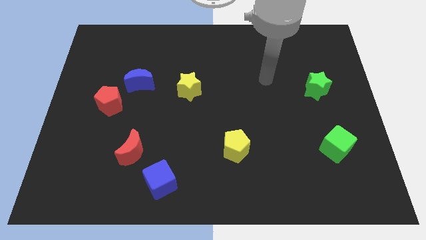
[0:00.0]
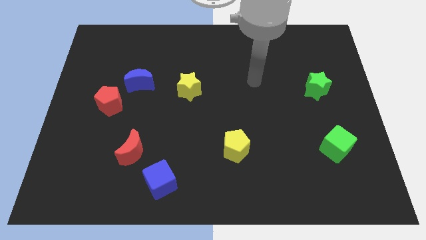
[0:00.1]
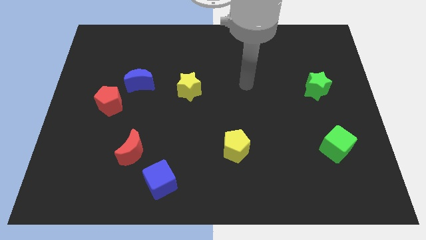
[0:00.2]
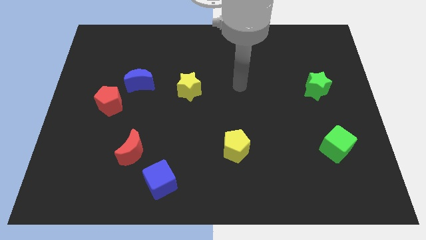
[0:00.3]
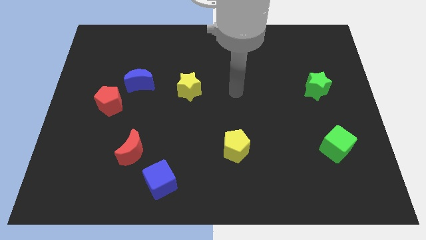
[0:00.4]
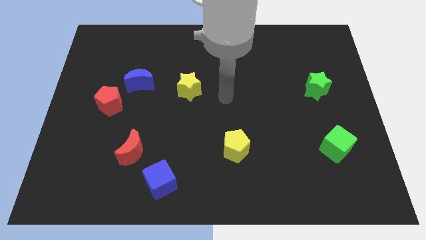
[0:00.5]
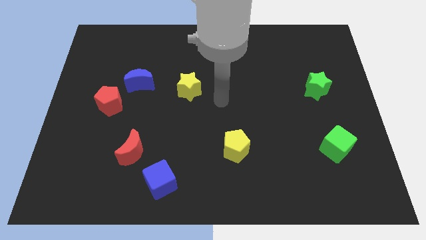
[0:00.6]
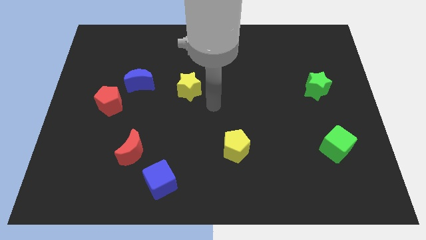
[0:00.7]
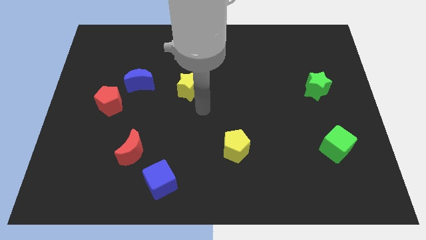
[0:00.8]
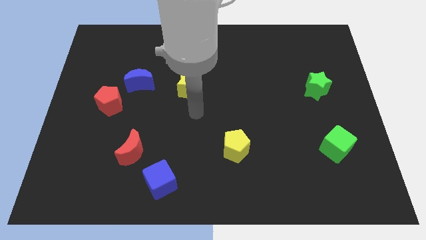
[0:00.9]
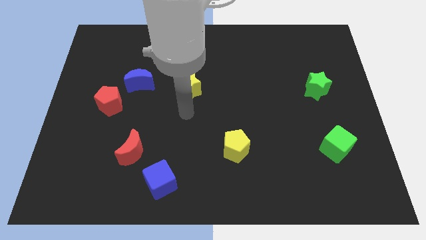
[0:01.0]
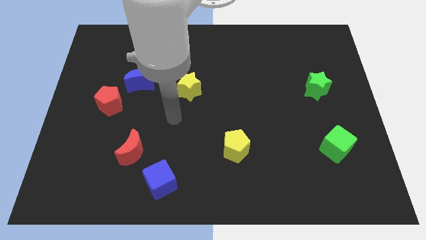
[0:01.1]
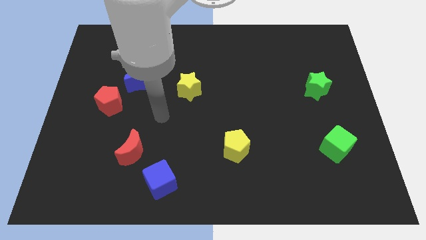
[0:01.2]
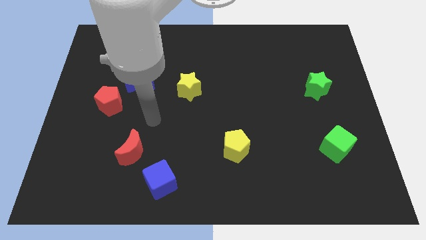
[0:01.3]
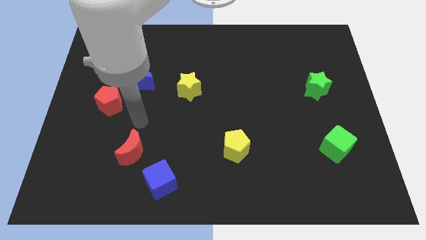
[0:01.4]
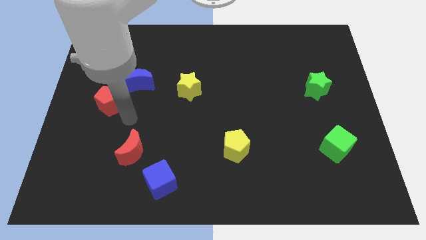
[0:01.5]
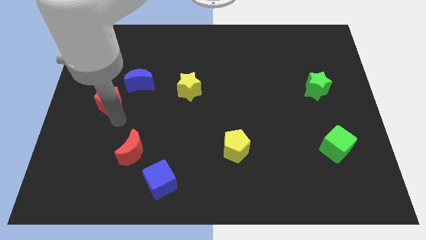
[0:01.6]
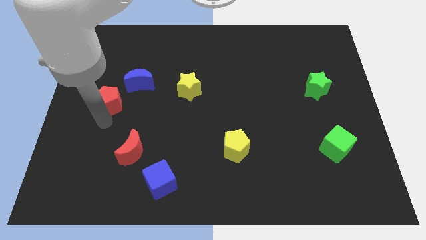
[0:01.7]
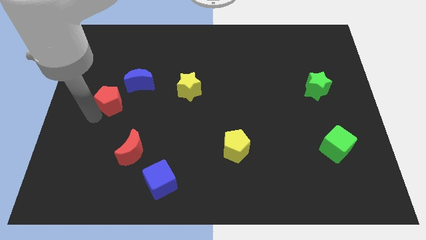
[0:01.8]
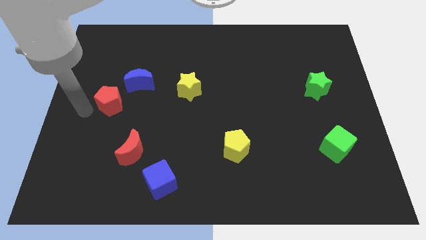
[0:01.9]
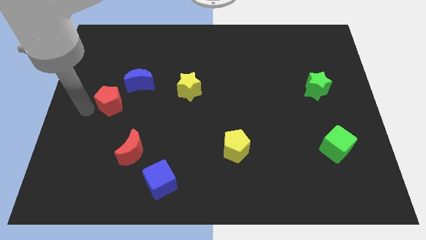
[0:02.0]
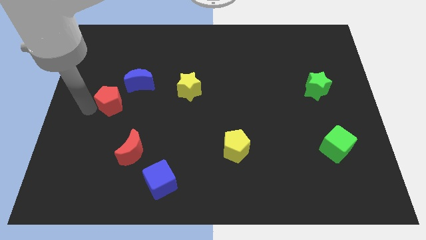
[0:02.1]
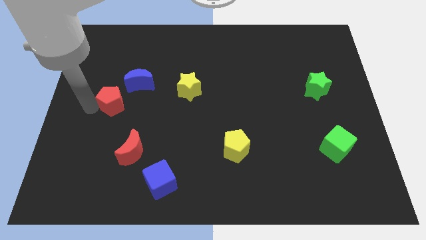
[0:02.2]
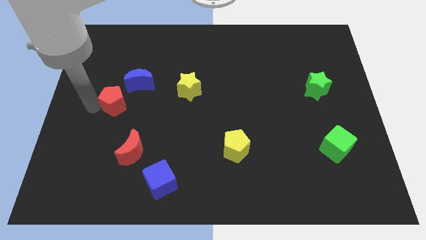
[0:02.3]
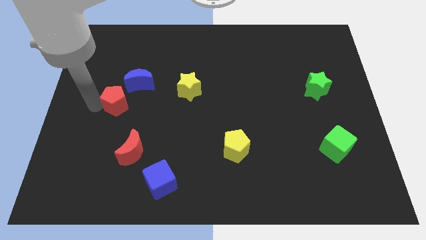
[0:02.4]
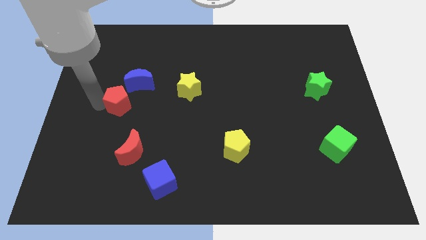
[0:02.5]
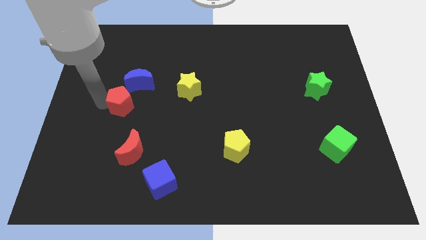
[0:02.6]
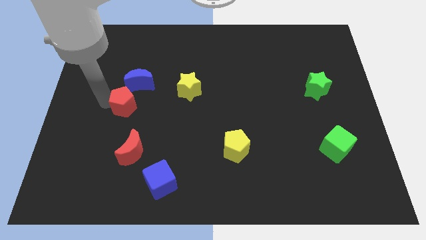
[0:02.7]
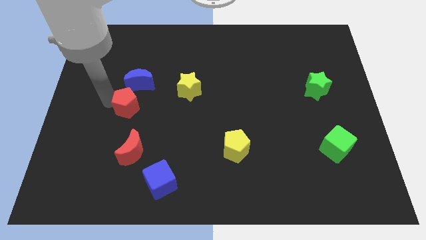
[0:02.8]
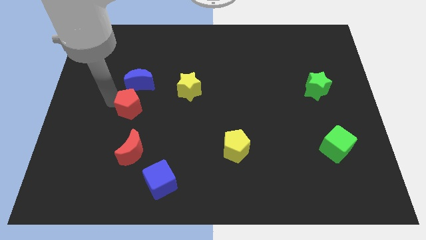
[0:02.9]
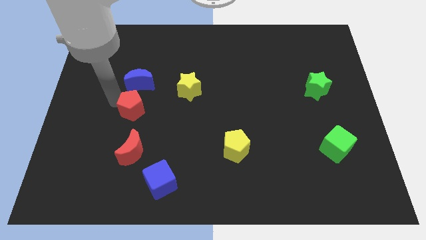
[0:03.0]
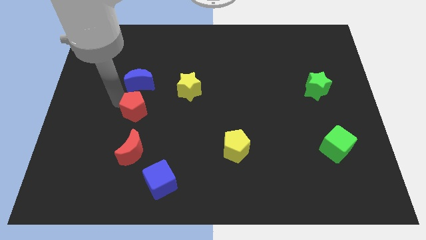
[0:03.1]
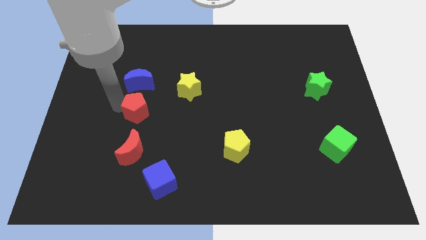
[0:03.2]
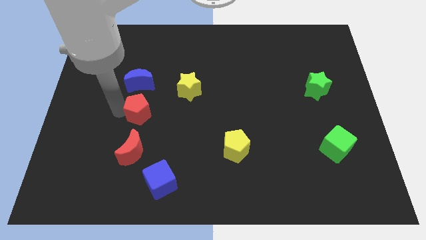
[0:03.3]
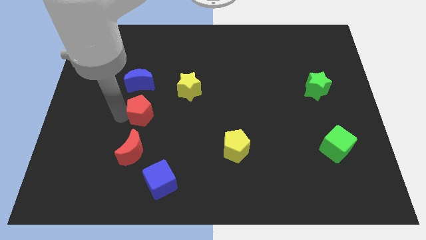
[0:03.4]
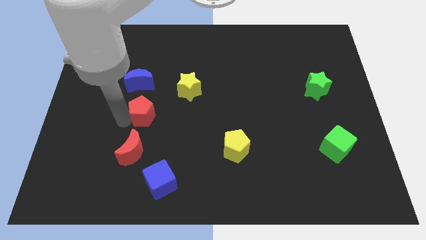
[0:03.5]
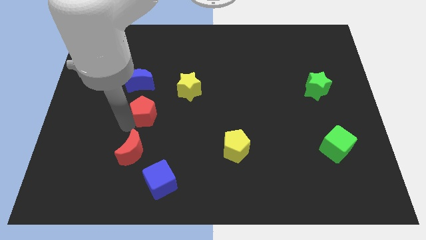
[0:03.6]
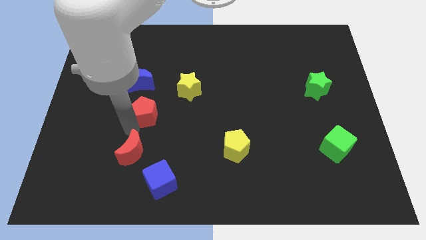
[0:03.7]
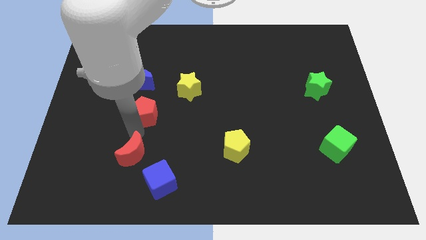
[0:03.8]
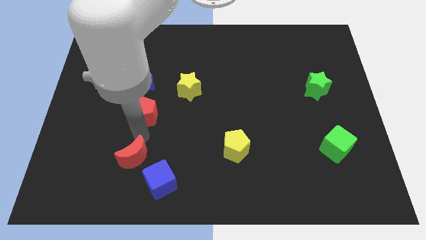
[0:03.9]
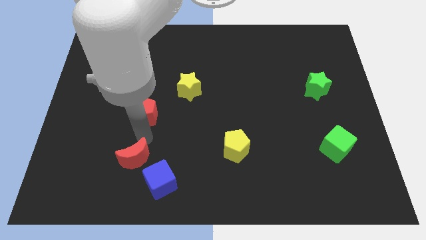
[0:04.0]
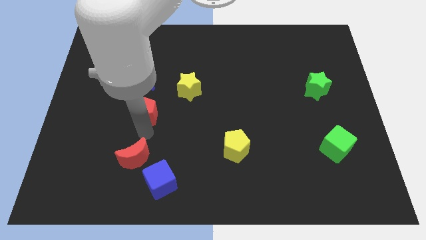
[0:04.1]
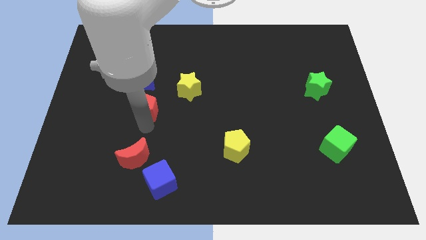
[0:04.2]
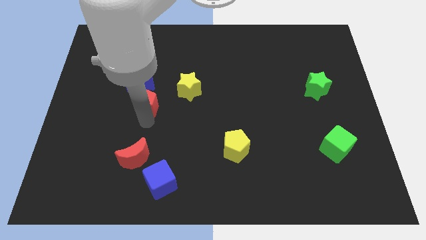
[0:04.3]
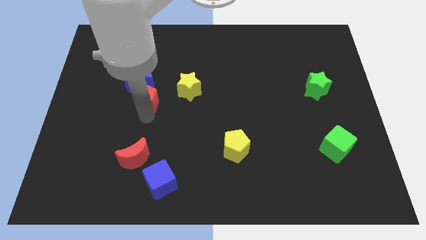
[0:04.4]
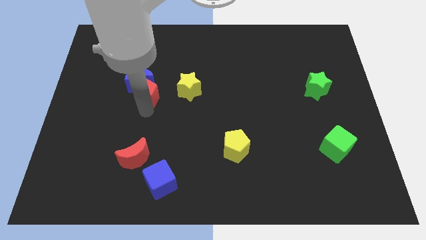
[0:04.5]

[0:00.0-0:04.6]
slightly push the red pentagon upwards and then right

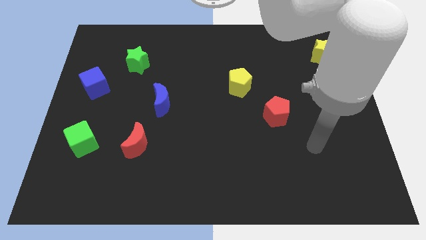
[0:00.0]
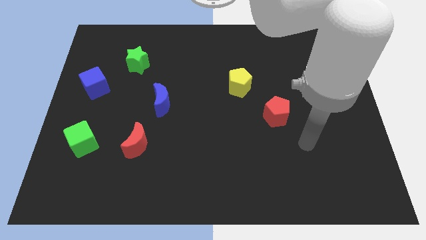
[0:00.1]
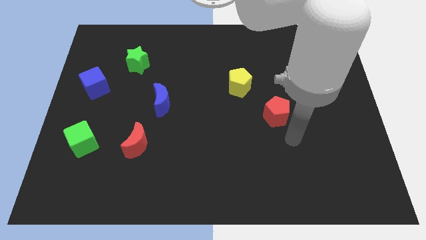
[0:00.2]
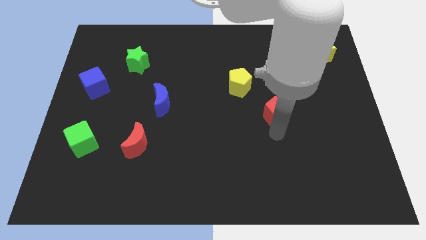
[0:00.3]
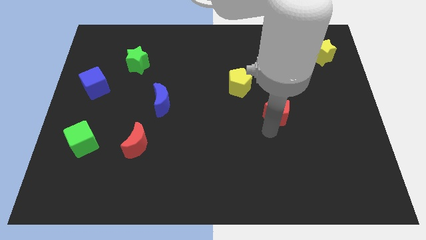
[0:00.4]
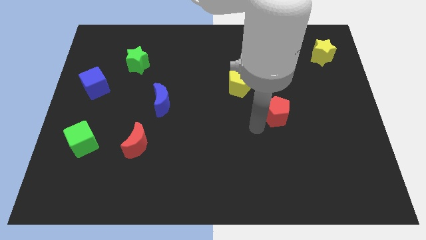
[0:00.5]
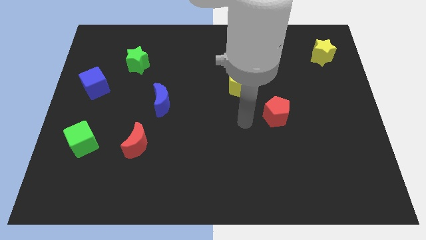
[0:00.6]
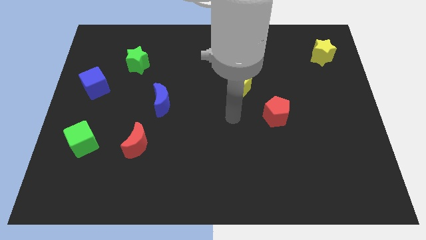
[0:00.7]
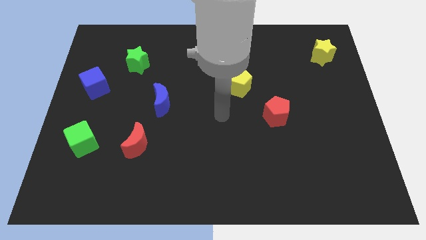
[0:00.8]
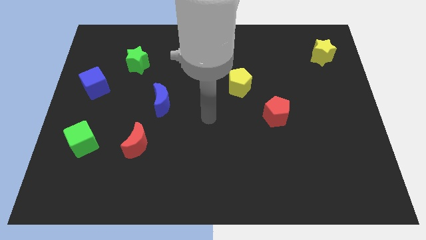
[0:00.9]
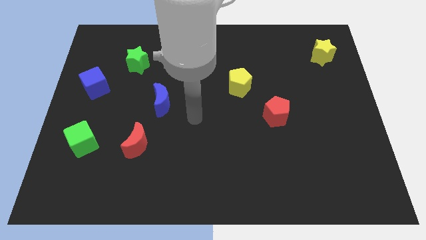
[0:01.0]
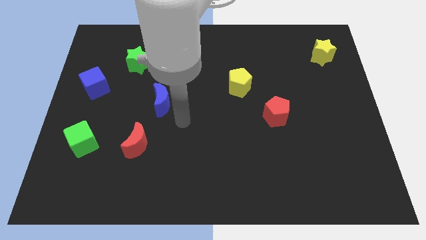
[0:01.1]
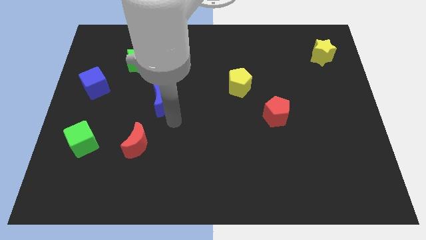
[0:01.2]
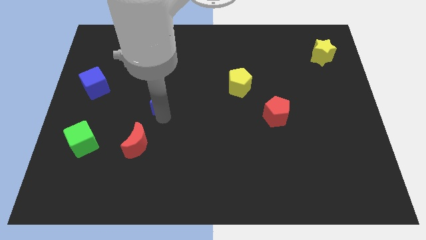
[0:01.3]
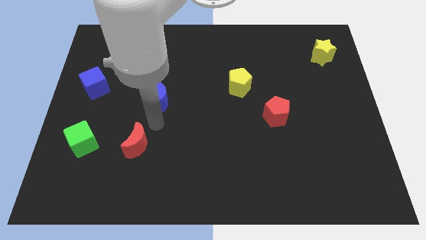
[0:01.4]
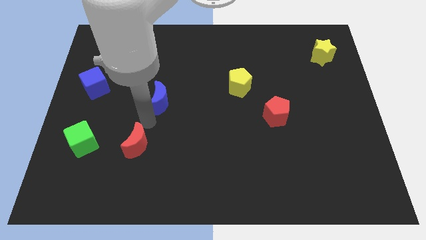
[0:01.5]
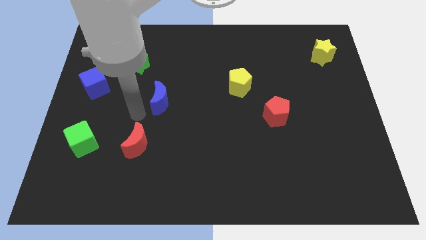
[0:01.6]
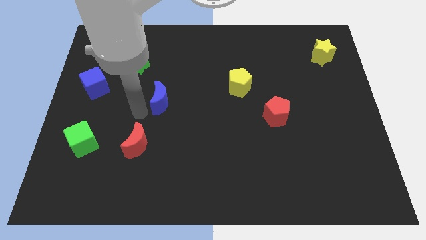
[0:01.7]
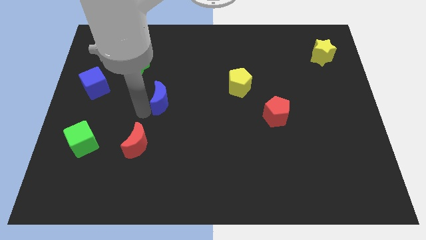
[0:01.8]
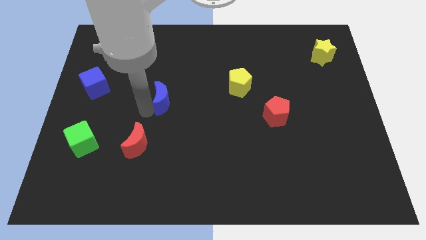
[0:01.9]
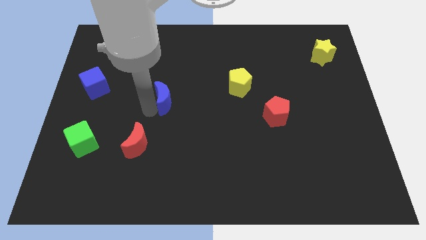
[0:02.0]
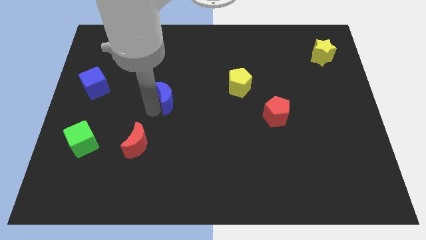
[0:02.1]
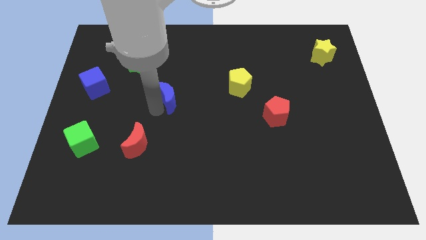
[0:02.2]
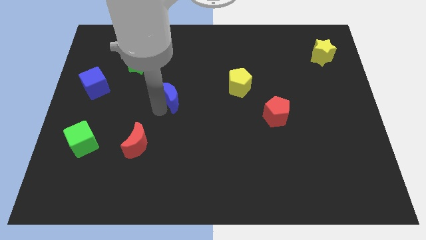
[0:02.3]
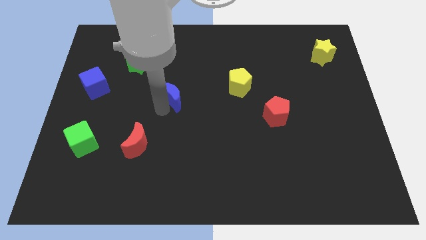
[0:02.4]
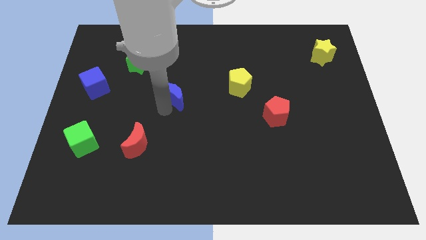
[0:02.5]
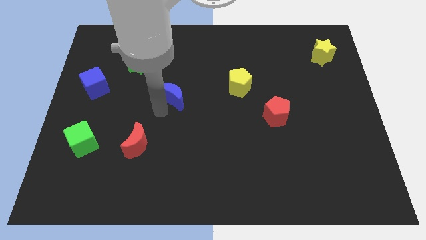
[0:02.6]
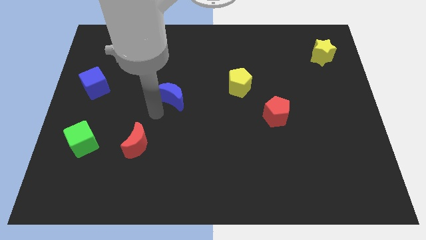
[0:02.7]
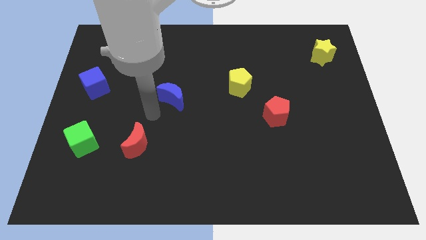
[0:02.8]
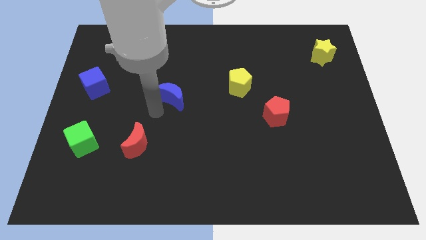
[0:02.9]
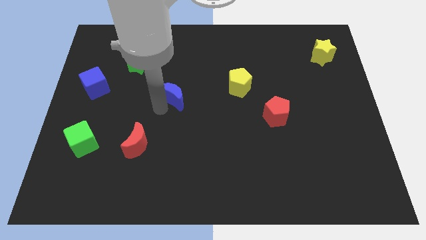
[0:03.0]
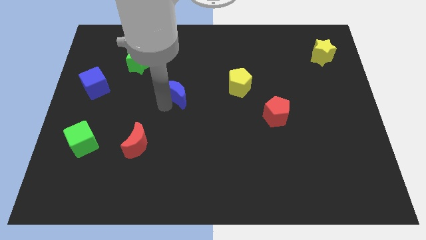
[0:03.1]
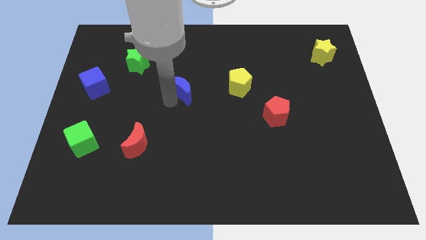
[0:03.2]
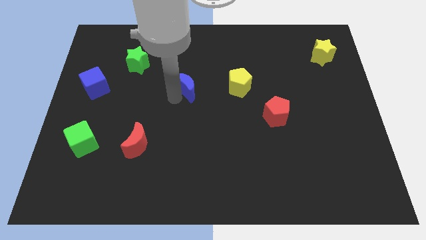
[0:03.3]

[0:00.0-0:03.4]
slightly slide the blue moon up and to the right diagonally

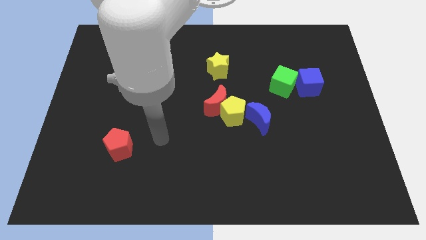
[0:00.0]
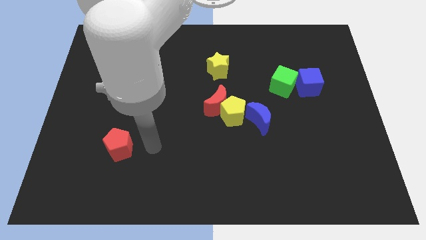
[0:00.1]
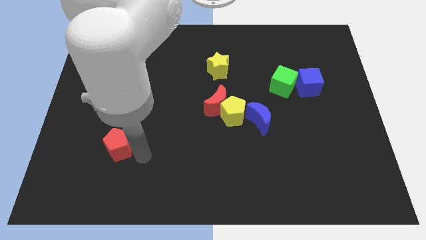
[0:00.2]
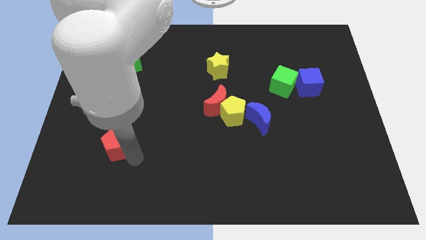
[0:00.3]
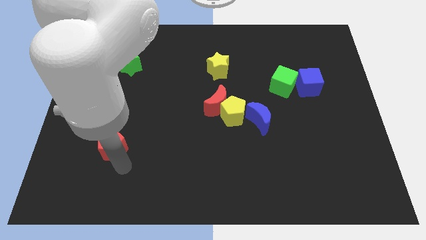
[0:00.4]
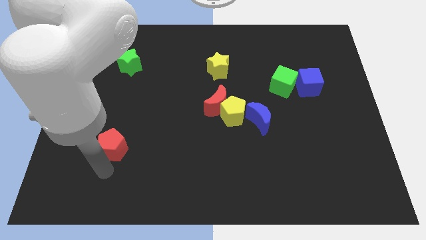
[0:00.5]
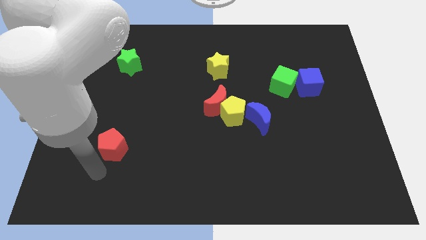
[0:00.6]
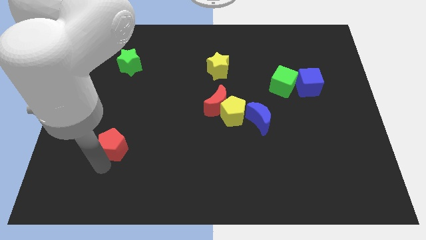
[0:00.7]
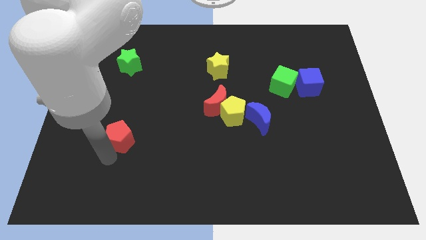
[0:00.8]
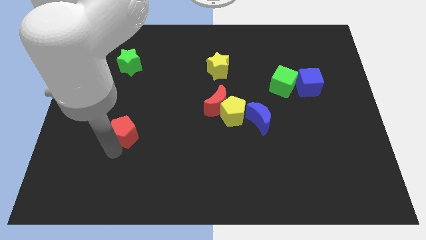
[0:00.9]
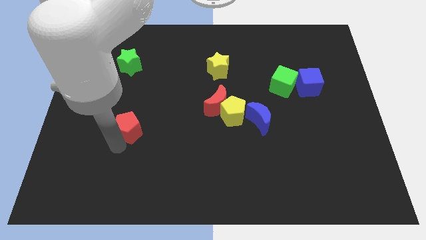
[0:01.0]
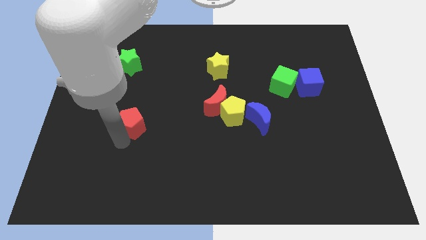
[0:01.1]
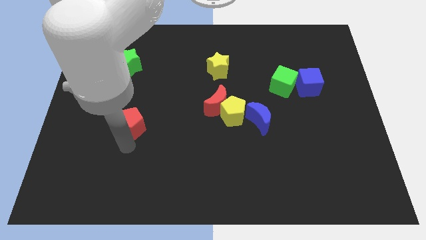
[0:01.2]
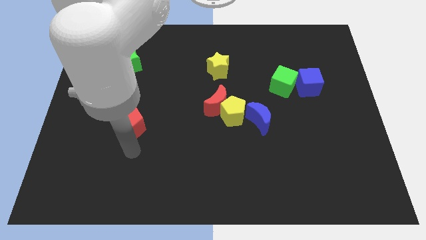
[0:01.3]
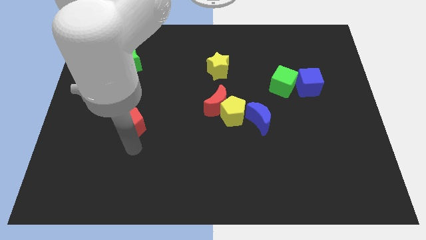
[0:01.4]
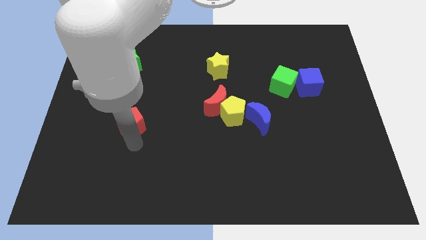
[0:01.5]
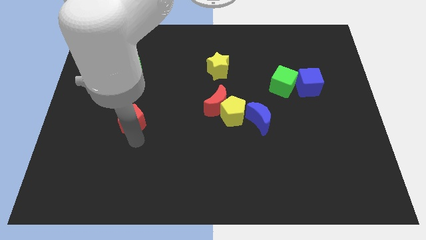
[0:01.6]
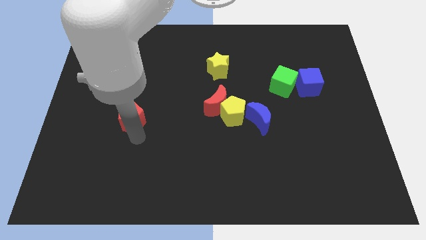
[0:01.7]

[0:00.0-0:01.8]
slightly push the red pentagon up
